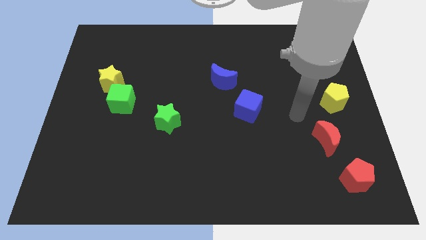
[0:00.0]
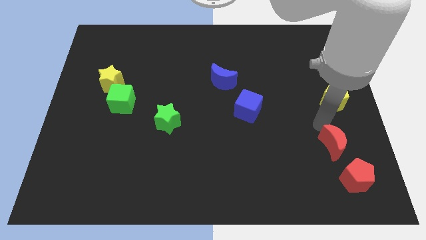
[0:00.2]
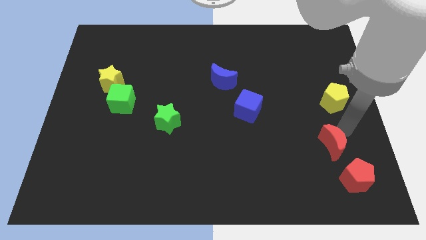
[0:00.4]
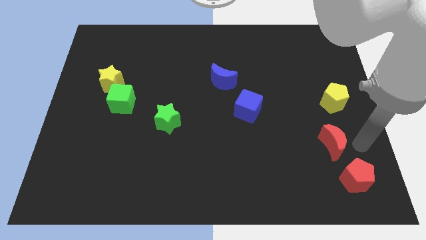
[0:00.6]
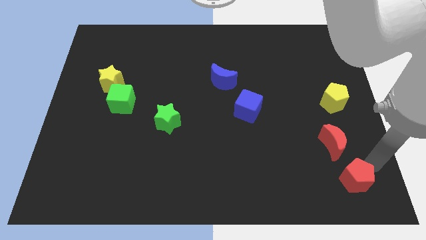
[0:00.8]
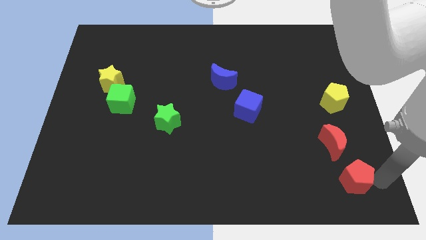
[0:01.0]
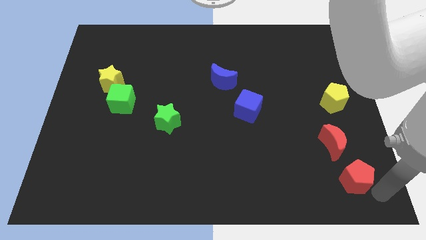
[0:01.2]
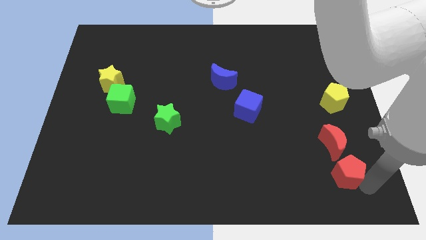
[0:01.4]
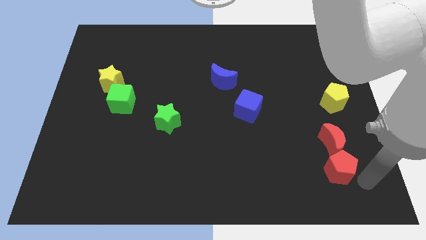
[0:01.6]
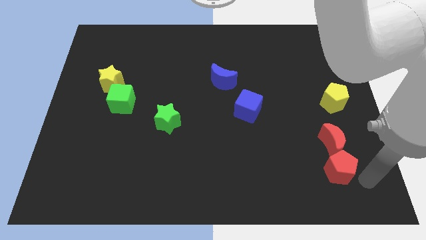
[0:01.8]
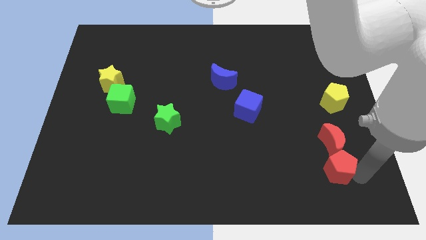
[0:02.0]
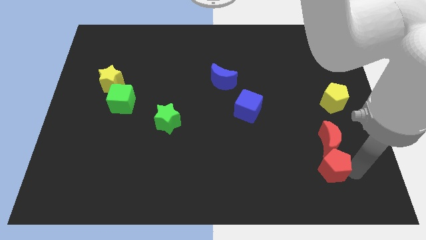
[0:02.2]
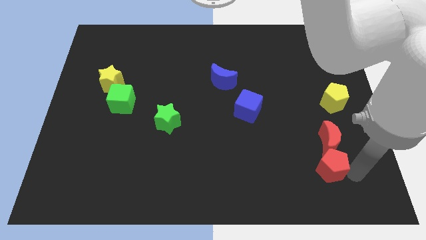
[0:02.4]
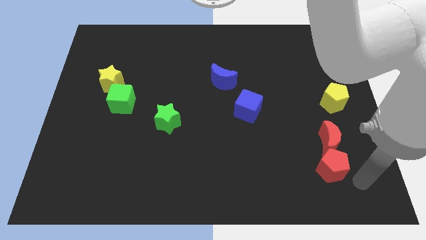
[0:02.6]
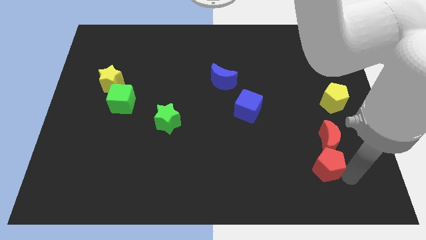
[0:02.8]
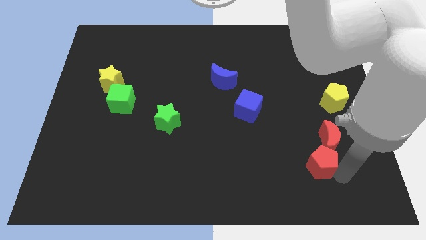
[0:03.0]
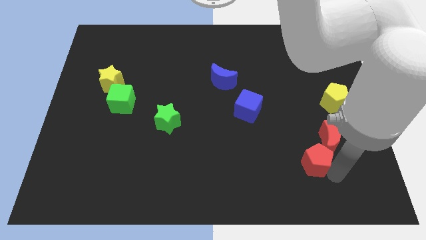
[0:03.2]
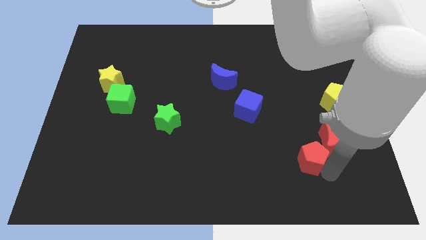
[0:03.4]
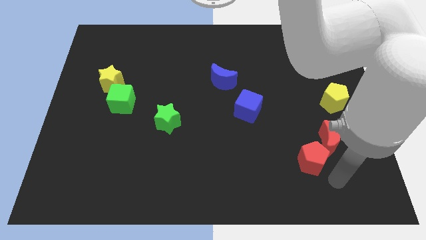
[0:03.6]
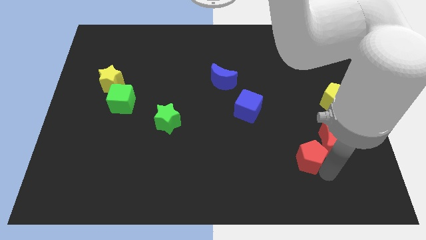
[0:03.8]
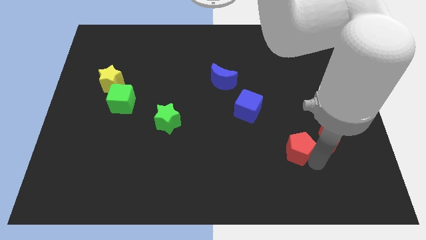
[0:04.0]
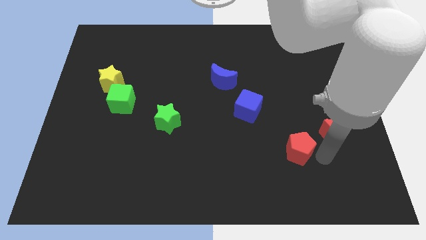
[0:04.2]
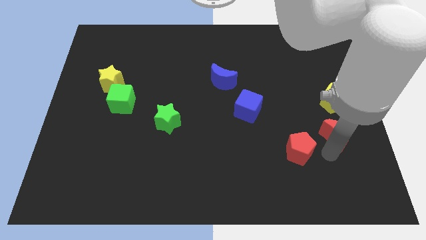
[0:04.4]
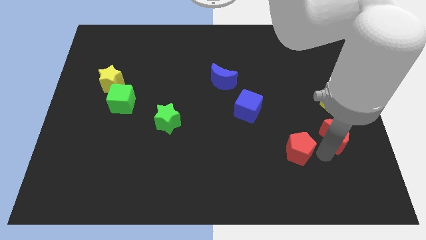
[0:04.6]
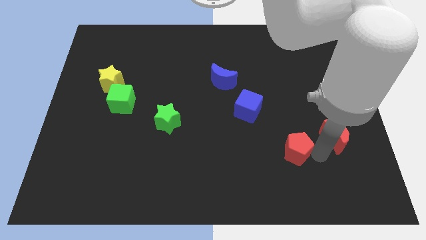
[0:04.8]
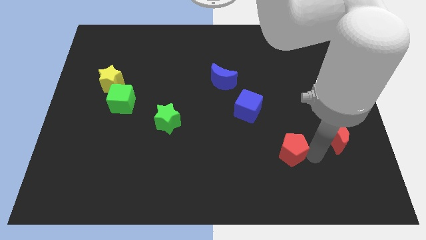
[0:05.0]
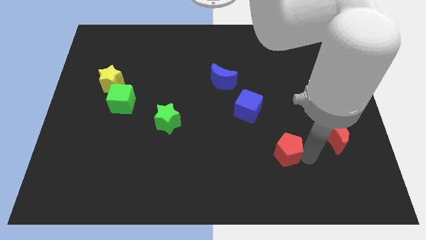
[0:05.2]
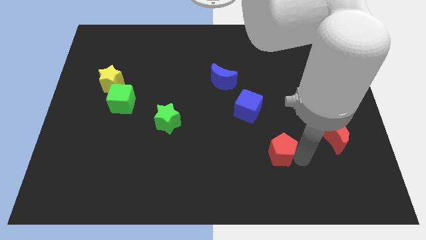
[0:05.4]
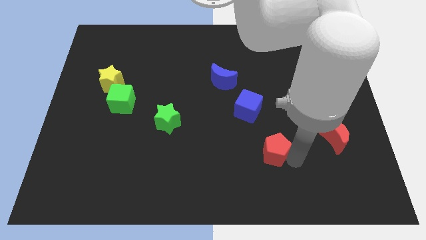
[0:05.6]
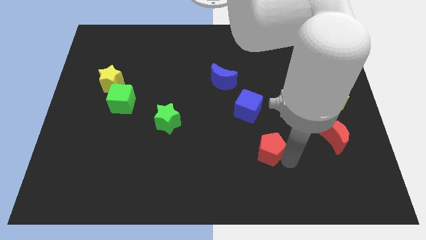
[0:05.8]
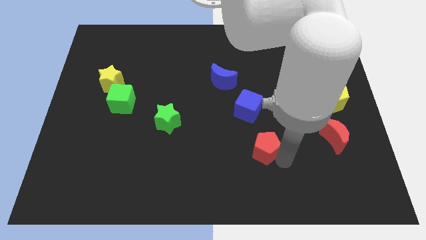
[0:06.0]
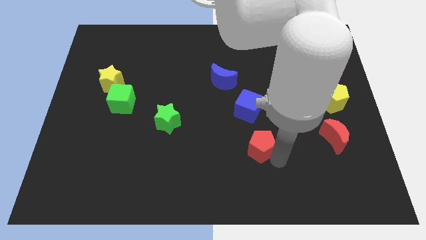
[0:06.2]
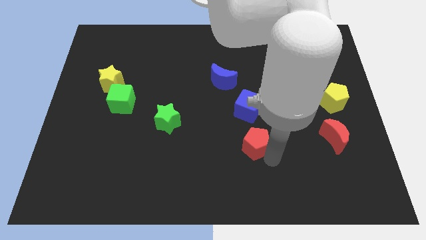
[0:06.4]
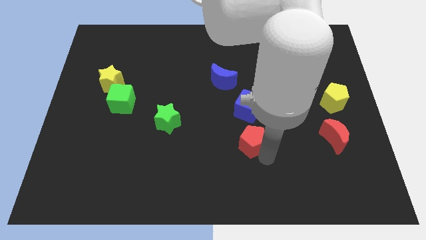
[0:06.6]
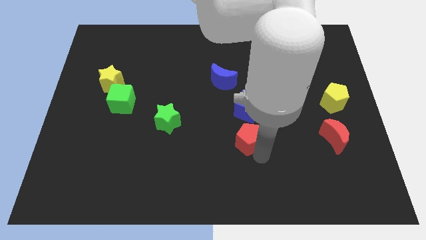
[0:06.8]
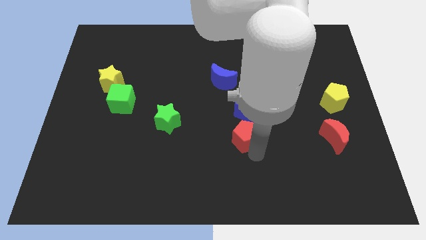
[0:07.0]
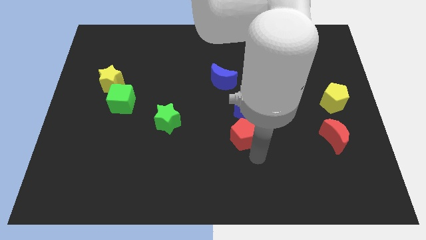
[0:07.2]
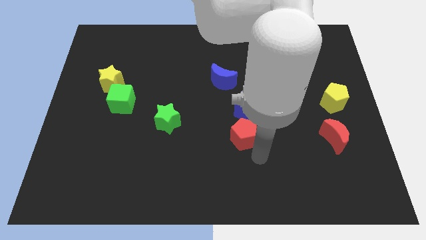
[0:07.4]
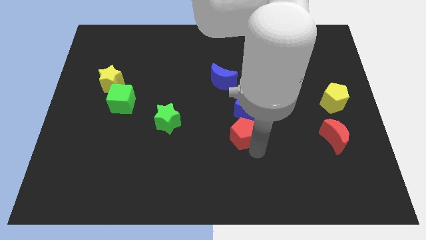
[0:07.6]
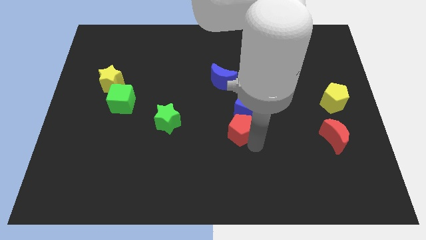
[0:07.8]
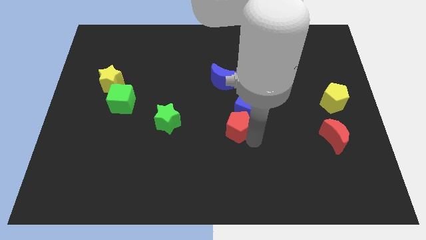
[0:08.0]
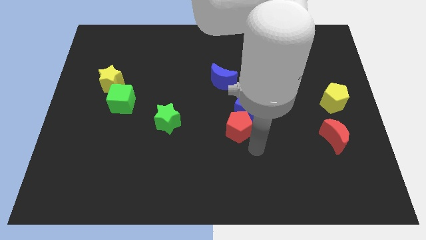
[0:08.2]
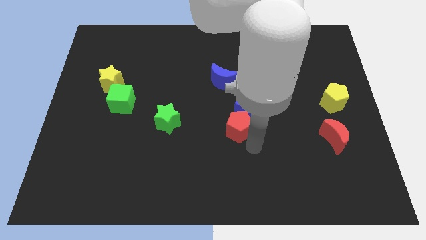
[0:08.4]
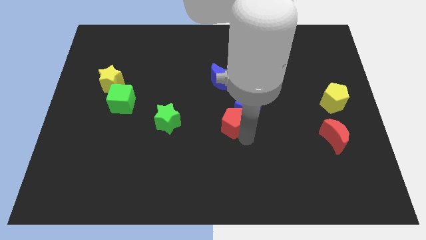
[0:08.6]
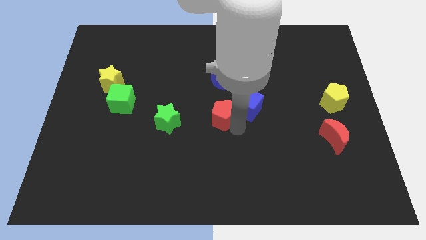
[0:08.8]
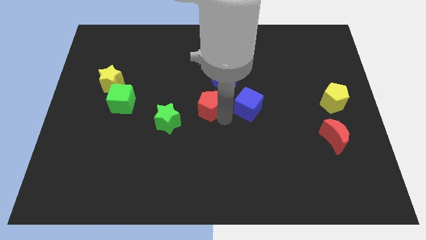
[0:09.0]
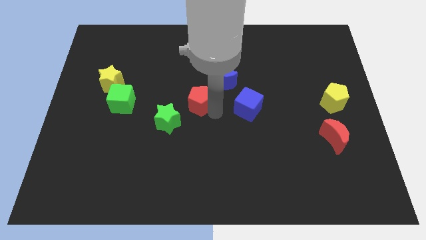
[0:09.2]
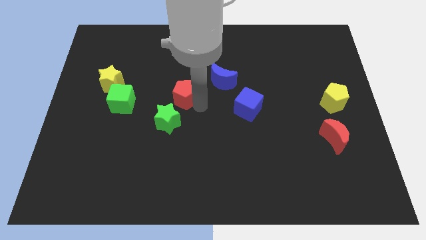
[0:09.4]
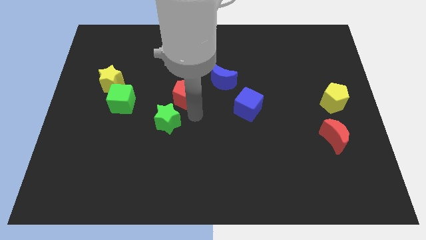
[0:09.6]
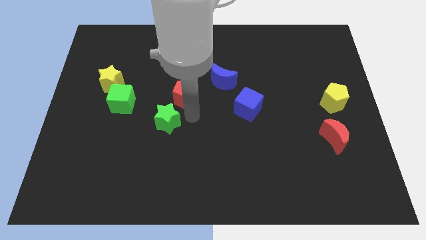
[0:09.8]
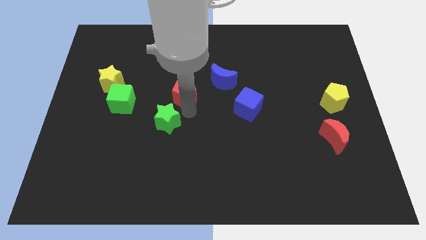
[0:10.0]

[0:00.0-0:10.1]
push the red pentagon to the left of the blue moon

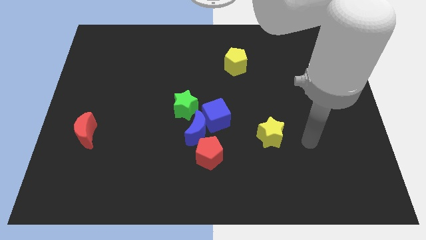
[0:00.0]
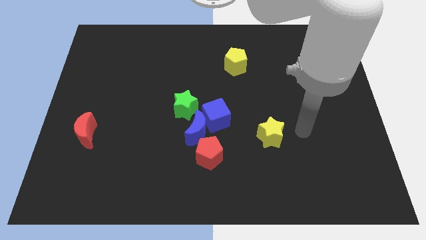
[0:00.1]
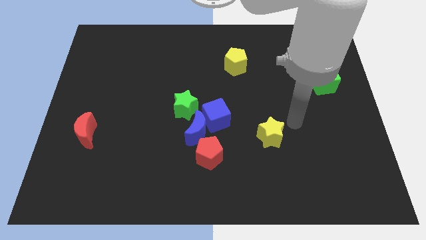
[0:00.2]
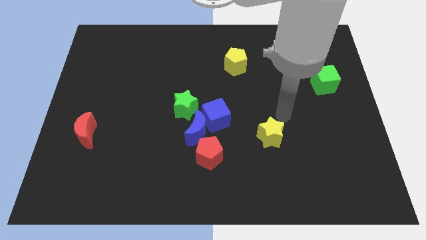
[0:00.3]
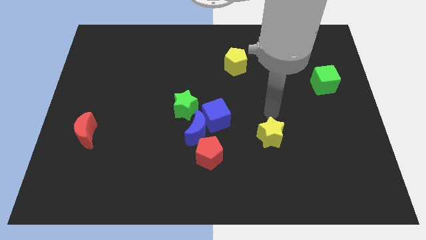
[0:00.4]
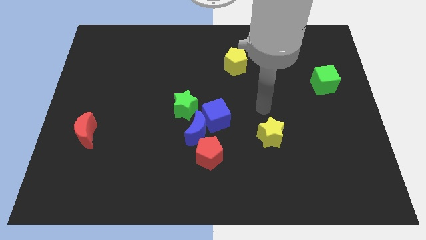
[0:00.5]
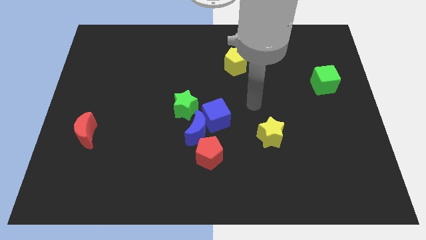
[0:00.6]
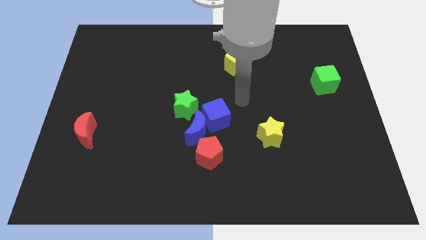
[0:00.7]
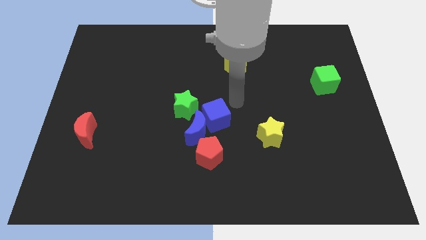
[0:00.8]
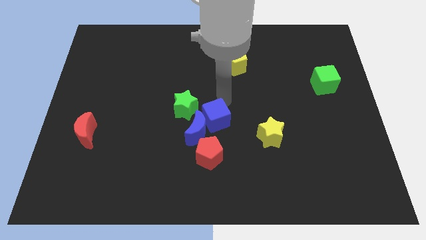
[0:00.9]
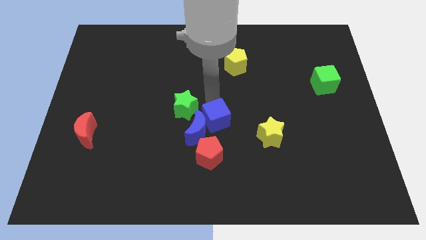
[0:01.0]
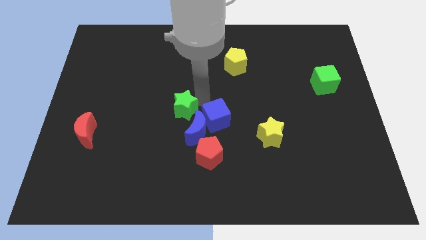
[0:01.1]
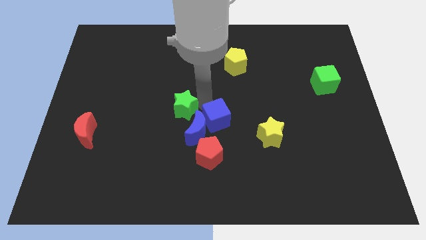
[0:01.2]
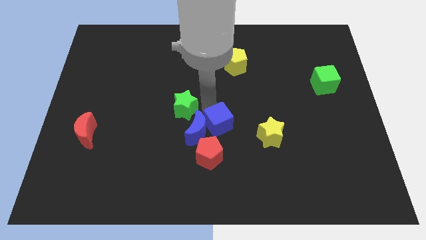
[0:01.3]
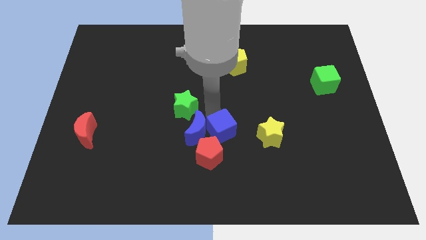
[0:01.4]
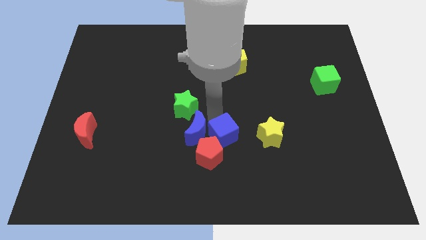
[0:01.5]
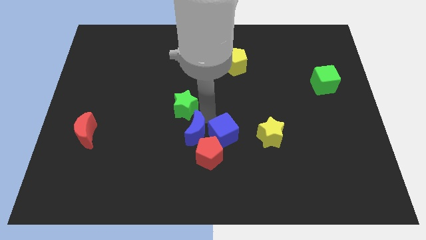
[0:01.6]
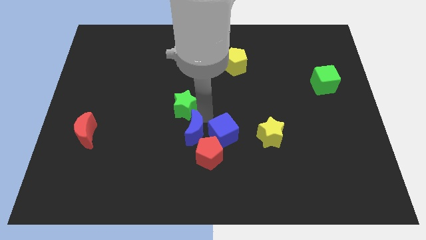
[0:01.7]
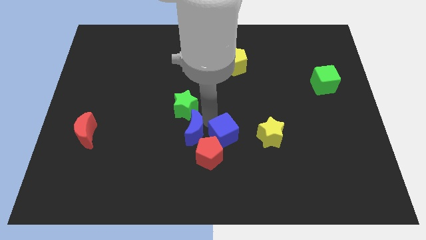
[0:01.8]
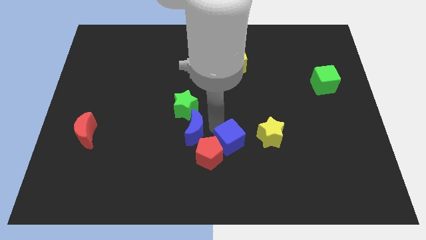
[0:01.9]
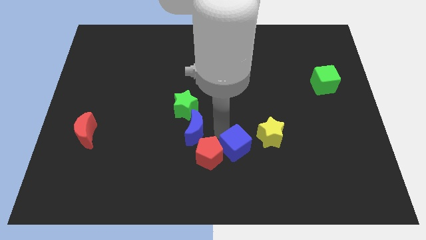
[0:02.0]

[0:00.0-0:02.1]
slide the blue cube to the bottom left side of the yellow star

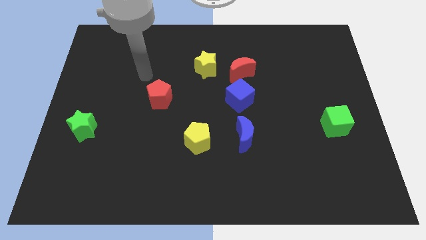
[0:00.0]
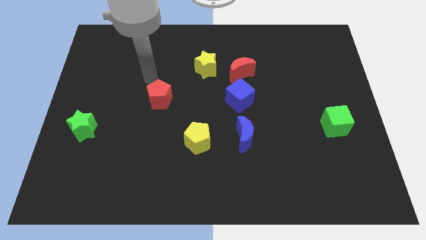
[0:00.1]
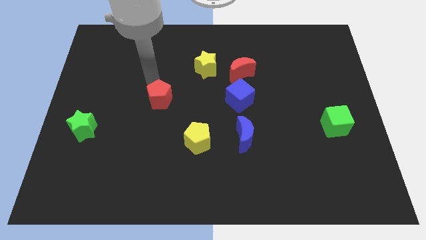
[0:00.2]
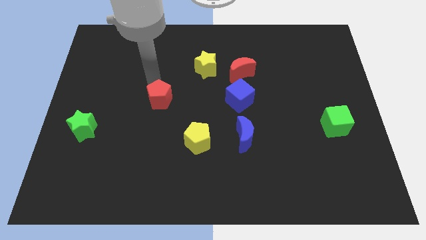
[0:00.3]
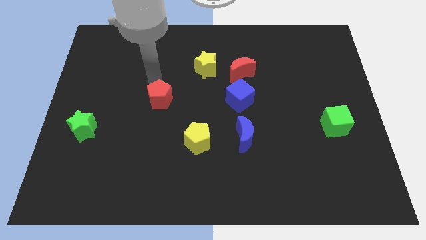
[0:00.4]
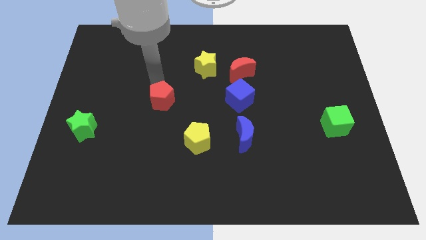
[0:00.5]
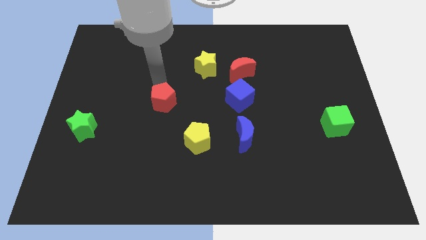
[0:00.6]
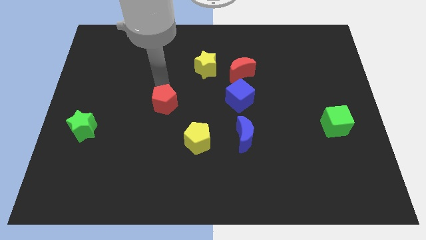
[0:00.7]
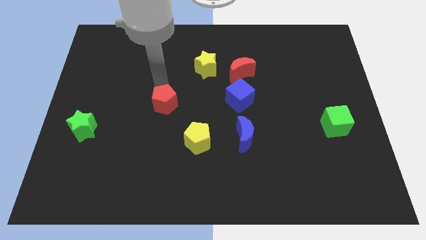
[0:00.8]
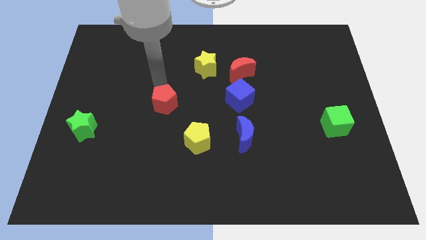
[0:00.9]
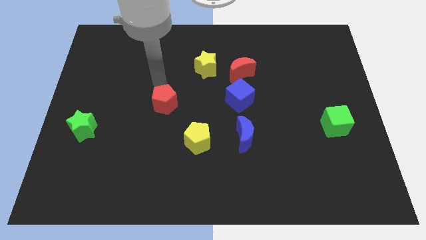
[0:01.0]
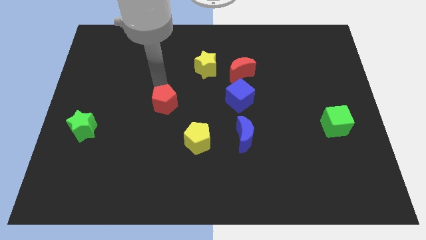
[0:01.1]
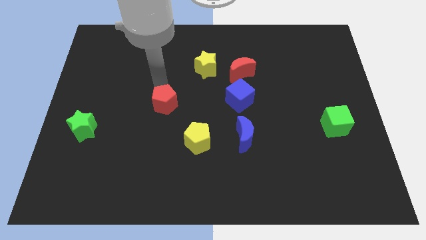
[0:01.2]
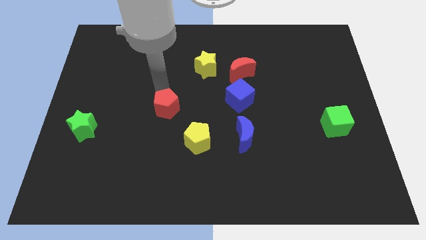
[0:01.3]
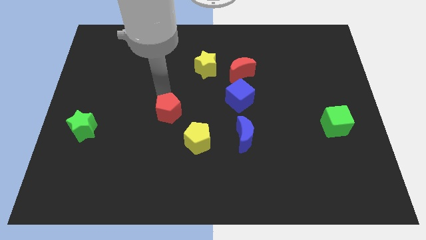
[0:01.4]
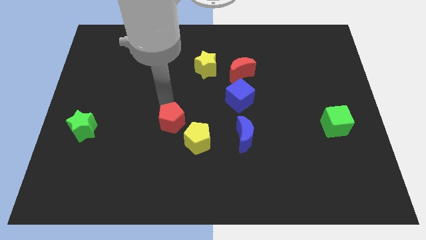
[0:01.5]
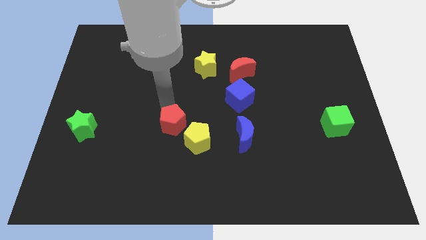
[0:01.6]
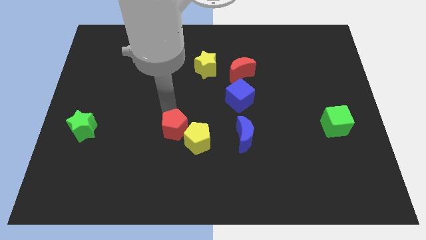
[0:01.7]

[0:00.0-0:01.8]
slide the red pentagon just left of the blue moon
